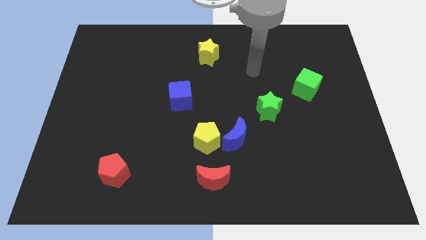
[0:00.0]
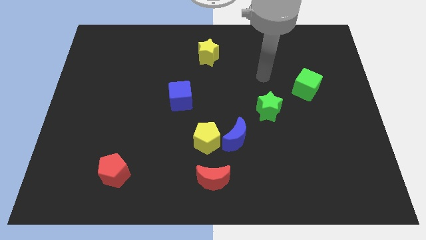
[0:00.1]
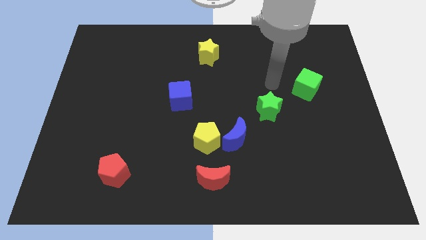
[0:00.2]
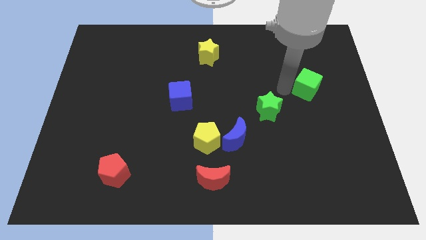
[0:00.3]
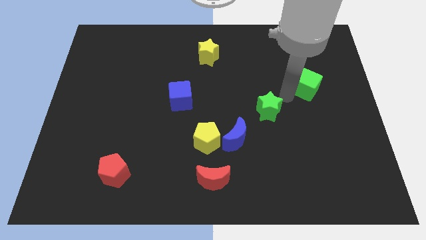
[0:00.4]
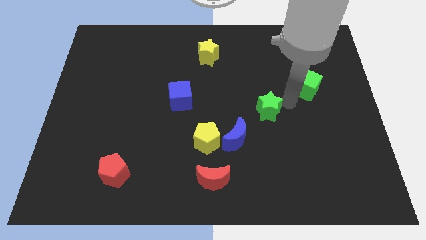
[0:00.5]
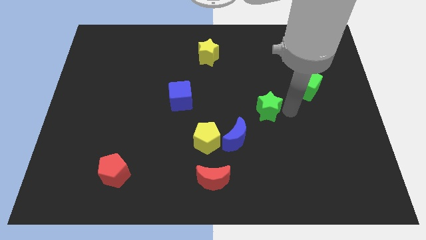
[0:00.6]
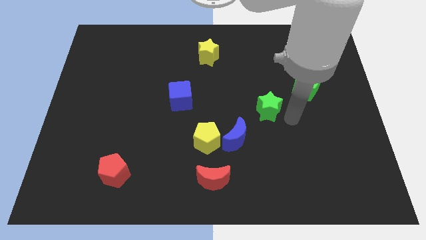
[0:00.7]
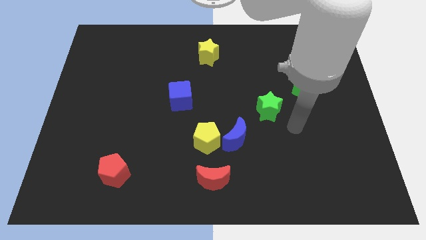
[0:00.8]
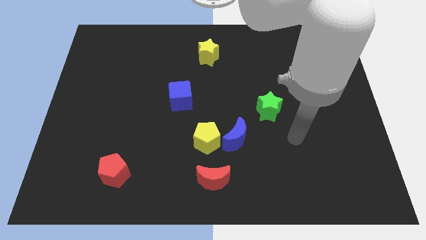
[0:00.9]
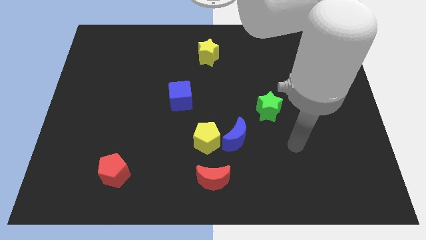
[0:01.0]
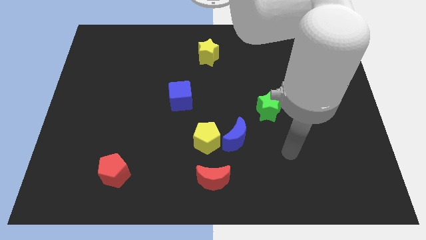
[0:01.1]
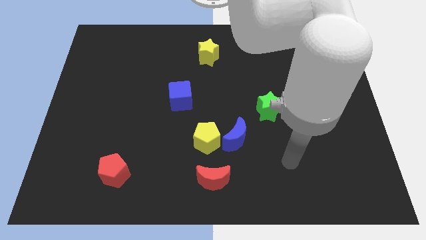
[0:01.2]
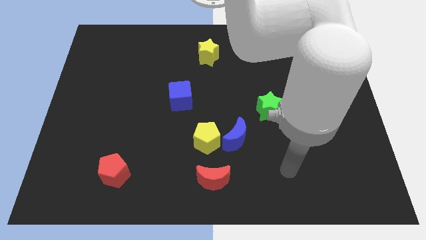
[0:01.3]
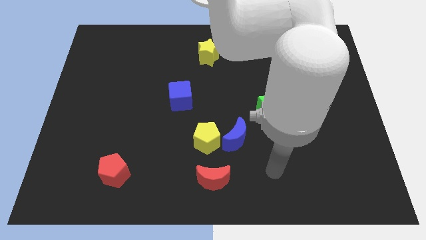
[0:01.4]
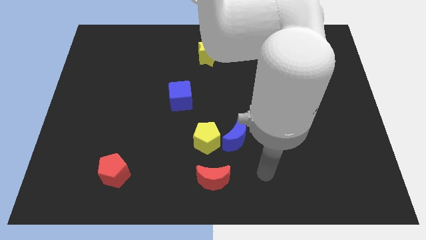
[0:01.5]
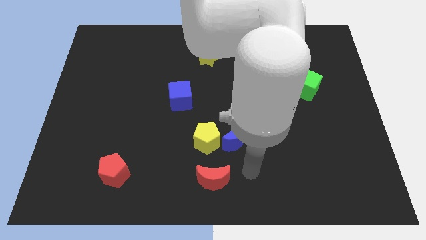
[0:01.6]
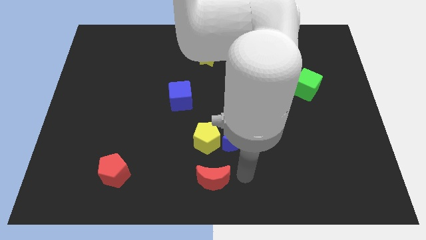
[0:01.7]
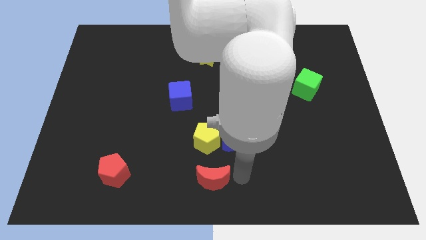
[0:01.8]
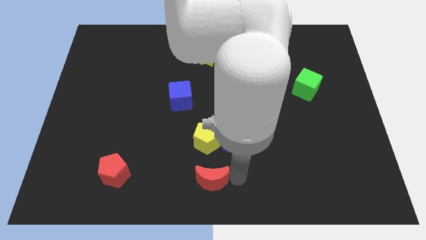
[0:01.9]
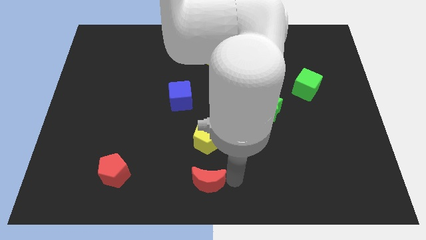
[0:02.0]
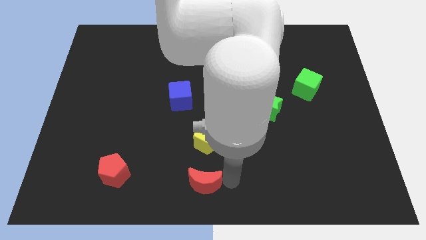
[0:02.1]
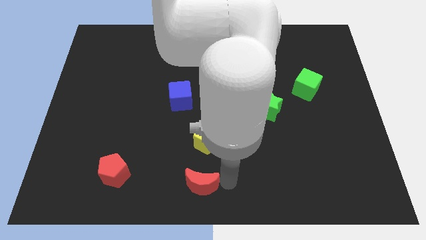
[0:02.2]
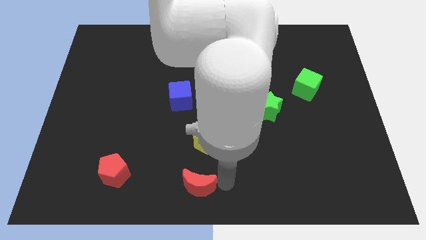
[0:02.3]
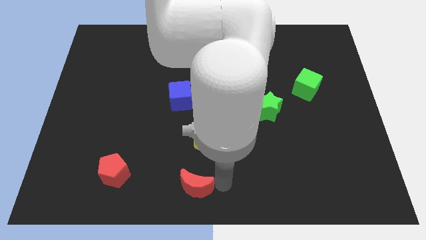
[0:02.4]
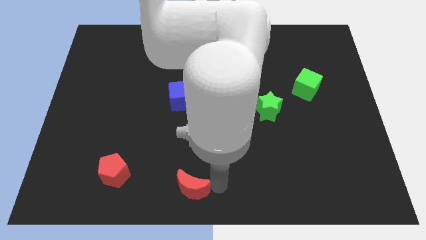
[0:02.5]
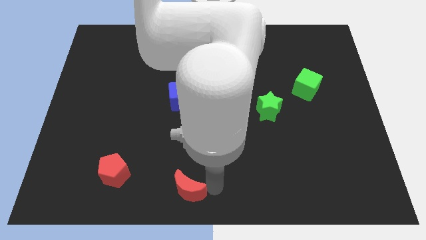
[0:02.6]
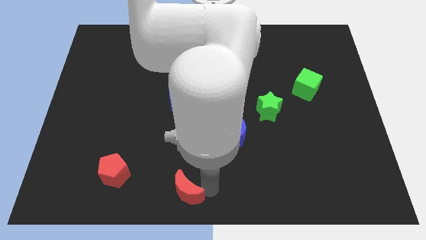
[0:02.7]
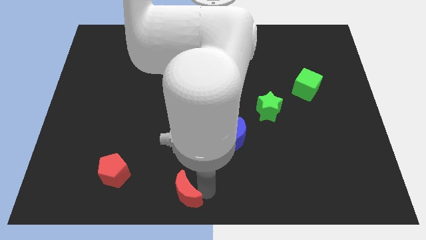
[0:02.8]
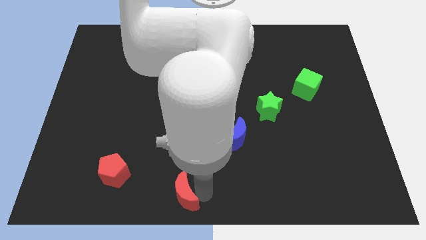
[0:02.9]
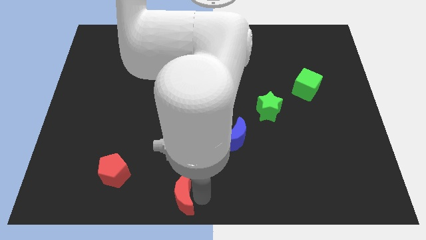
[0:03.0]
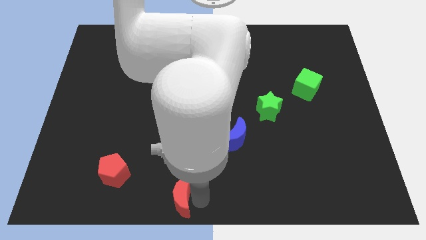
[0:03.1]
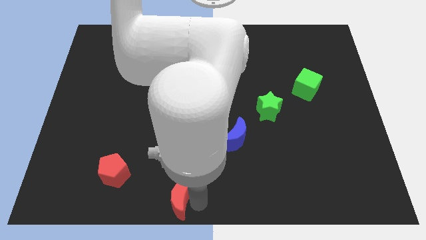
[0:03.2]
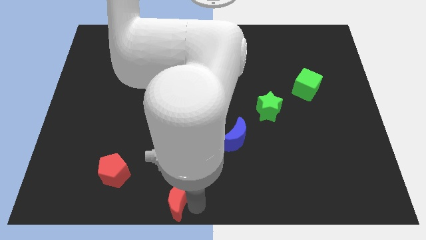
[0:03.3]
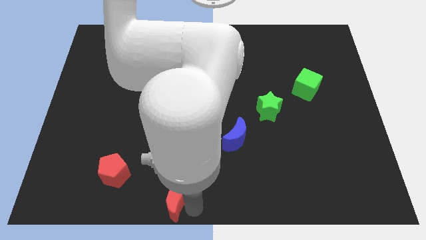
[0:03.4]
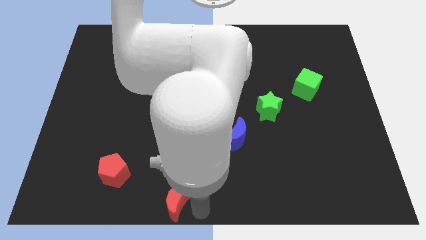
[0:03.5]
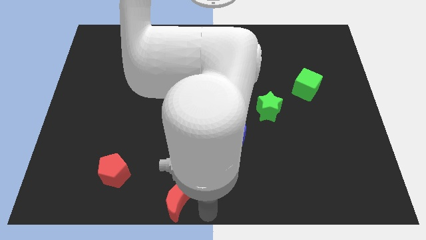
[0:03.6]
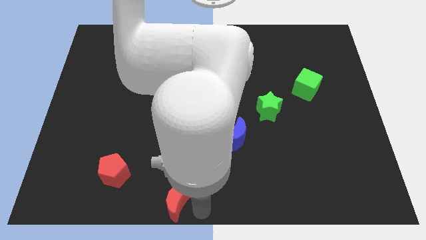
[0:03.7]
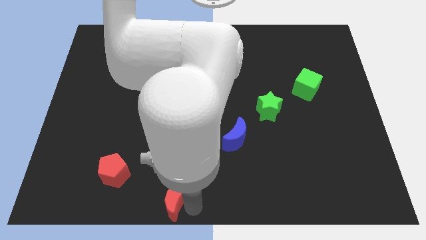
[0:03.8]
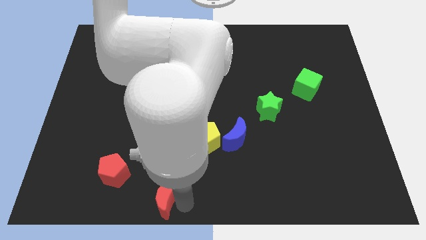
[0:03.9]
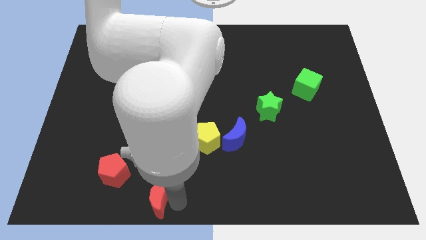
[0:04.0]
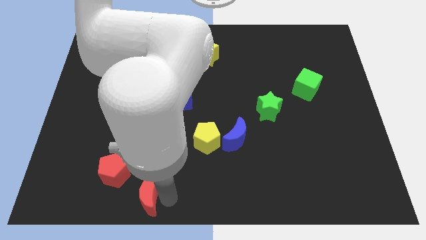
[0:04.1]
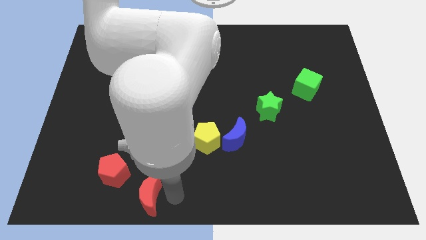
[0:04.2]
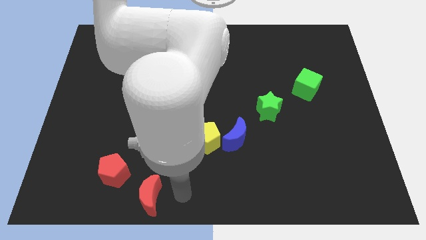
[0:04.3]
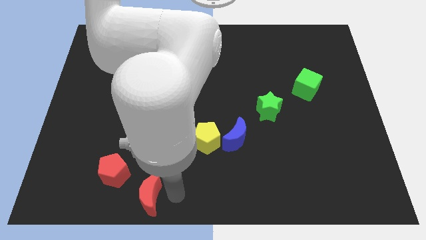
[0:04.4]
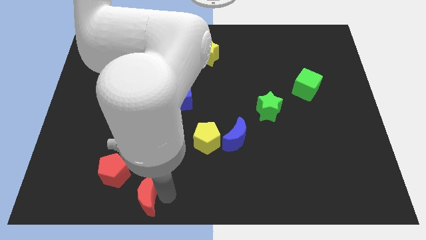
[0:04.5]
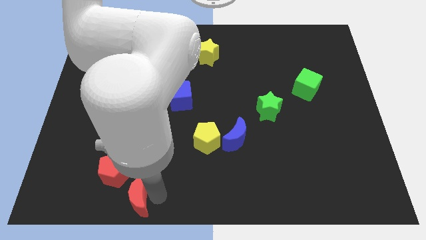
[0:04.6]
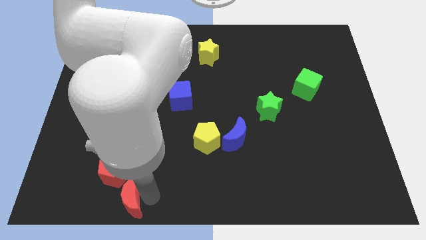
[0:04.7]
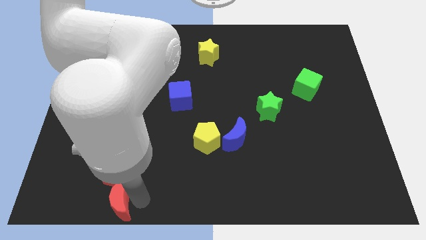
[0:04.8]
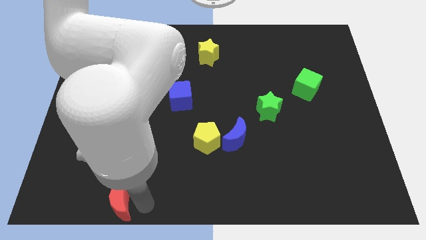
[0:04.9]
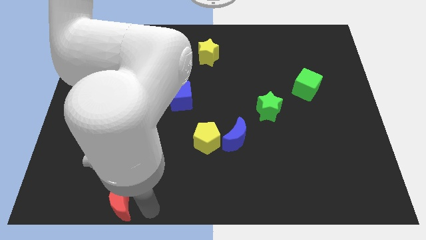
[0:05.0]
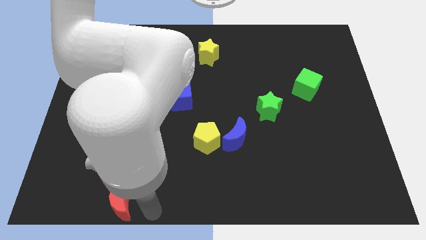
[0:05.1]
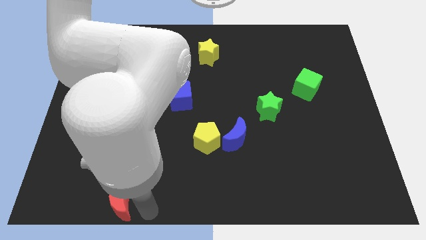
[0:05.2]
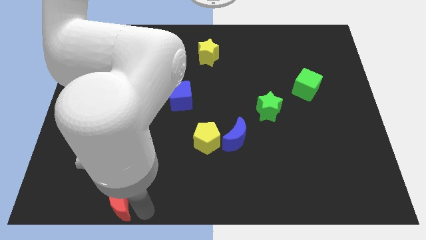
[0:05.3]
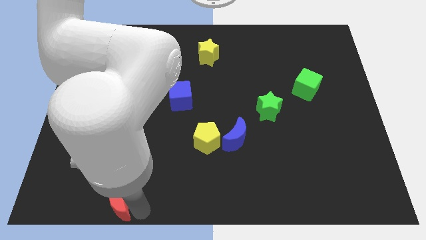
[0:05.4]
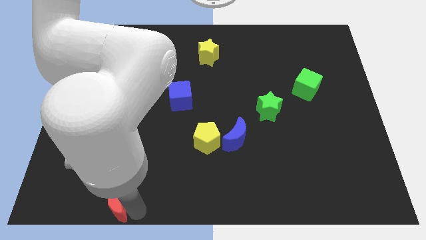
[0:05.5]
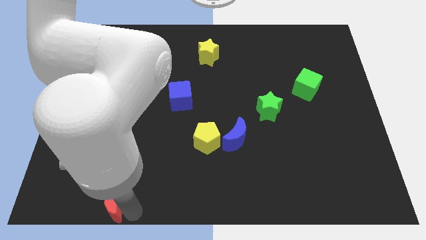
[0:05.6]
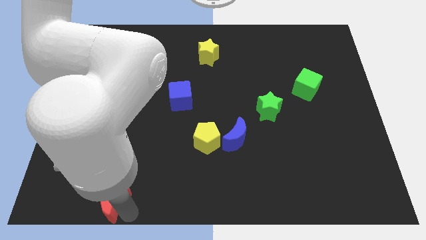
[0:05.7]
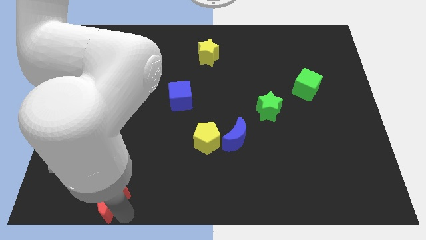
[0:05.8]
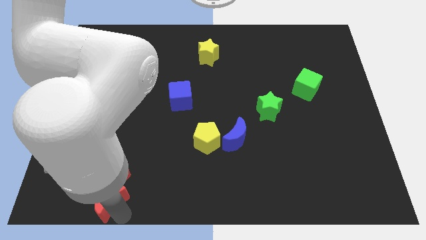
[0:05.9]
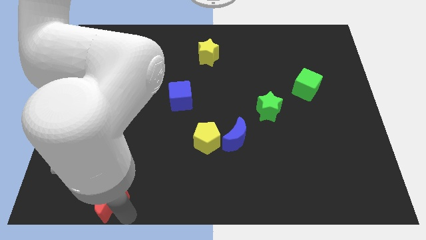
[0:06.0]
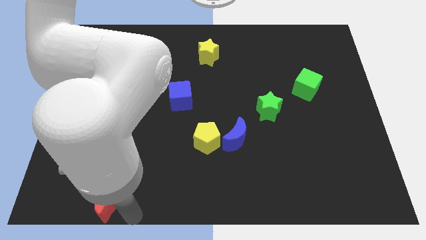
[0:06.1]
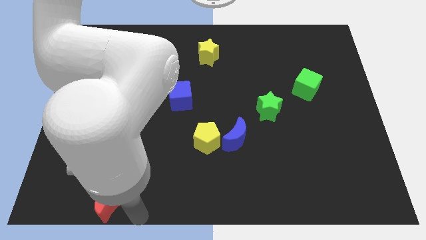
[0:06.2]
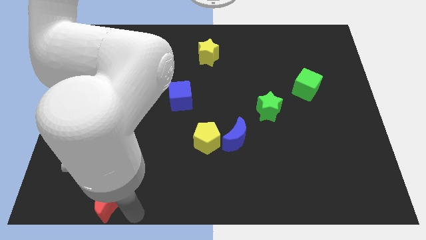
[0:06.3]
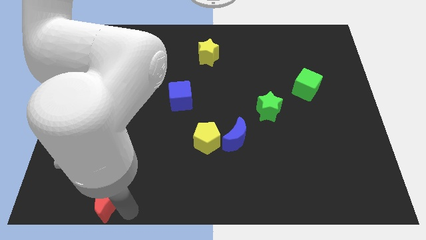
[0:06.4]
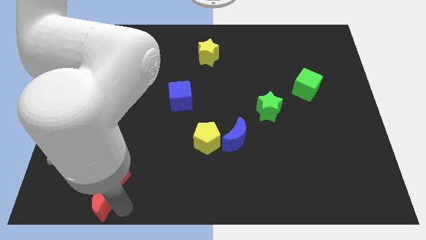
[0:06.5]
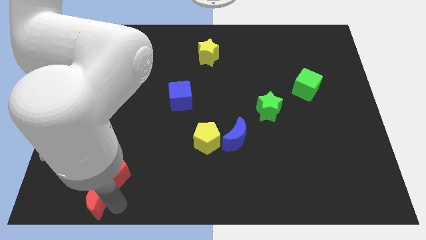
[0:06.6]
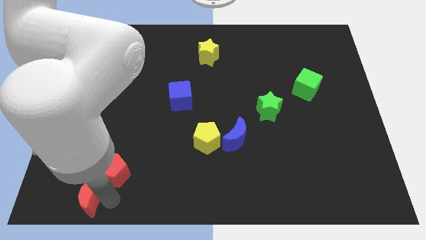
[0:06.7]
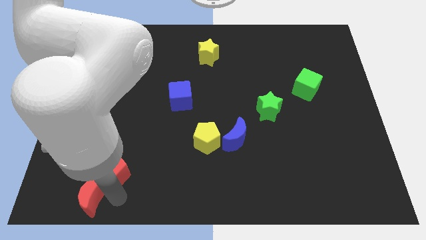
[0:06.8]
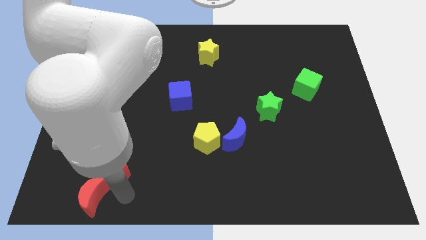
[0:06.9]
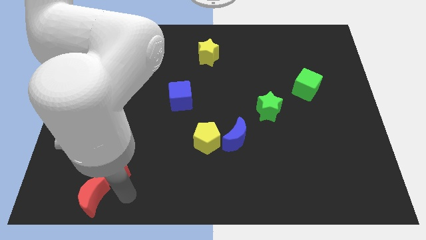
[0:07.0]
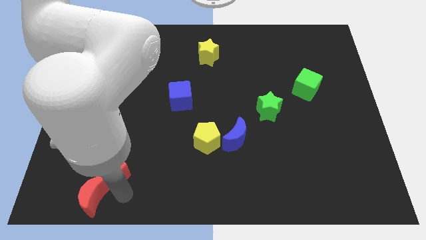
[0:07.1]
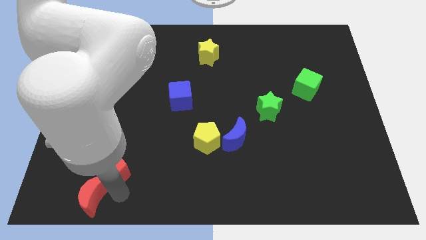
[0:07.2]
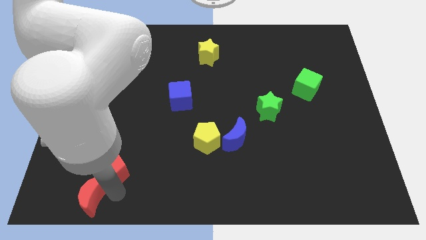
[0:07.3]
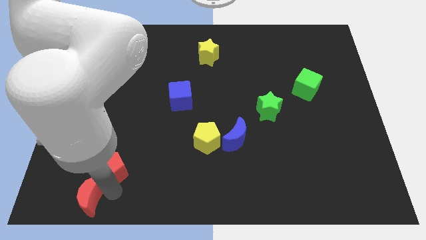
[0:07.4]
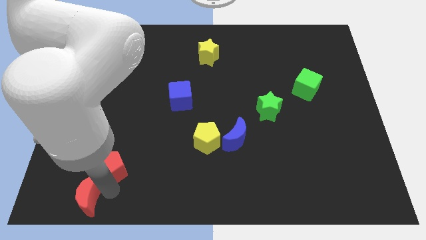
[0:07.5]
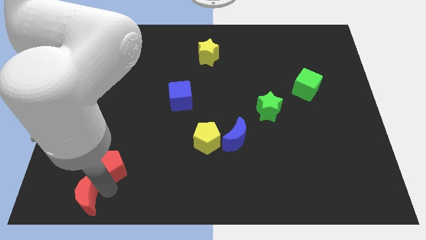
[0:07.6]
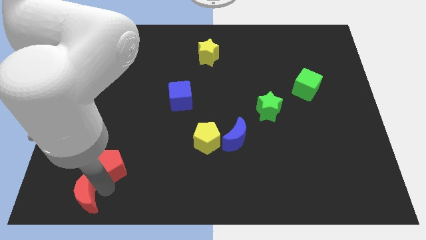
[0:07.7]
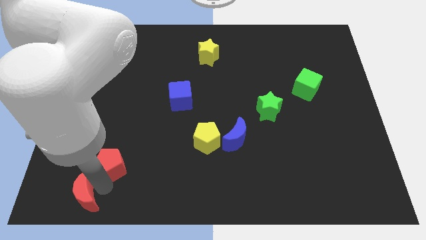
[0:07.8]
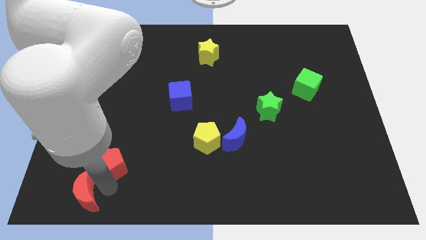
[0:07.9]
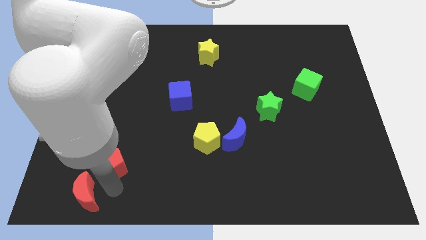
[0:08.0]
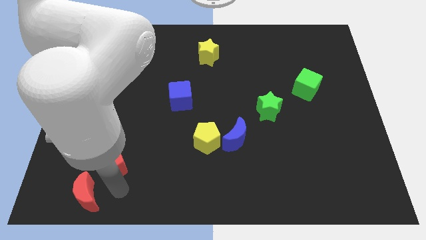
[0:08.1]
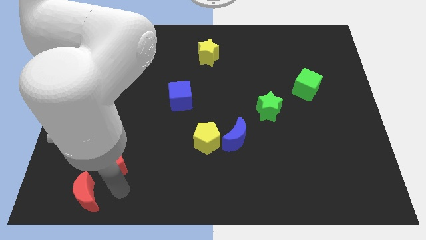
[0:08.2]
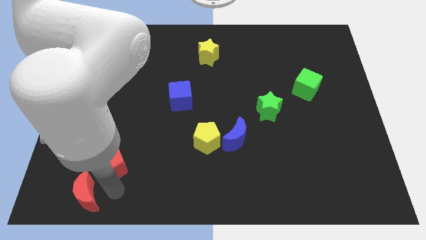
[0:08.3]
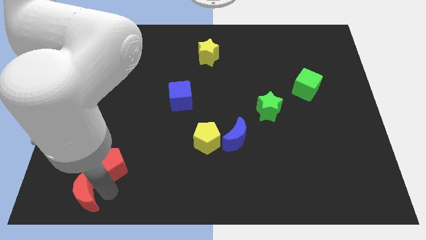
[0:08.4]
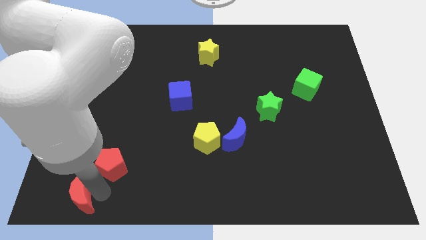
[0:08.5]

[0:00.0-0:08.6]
move the red moon to the bottom left of the board
